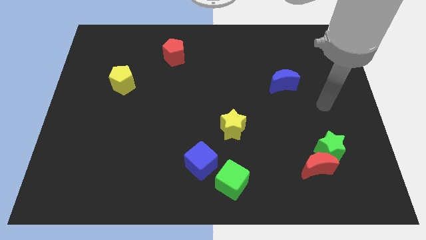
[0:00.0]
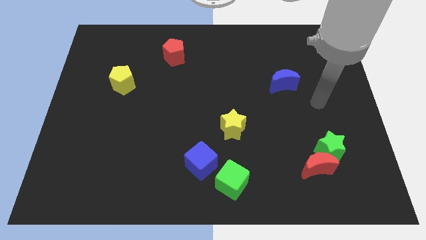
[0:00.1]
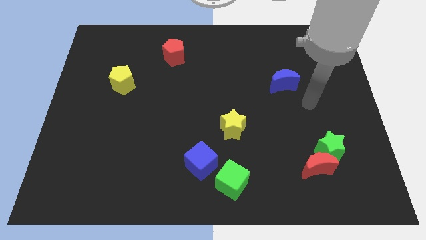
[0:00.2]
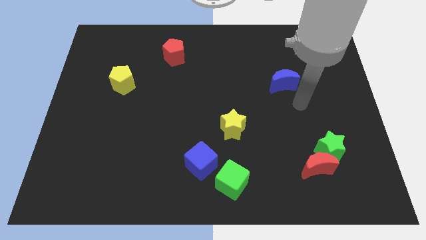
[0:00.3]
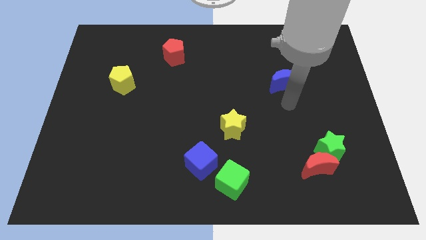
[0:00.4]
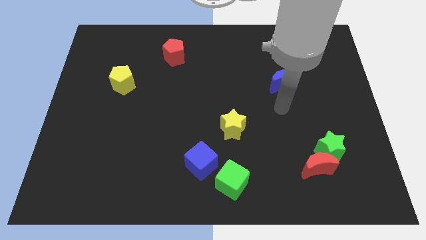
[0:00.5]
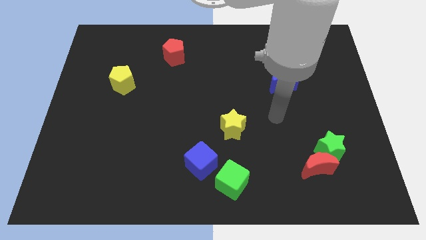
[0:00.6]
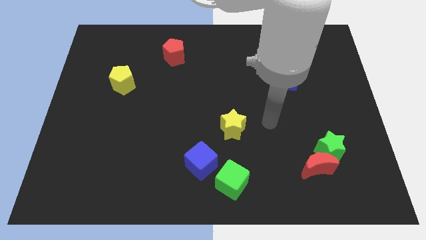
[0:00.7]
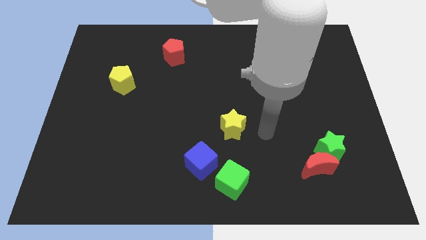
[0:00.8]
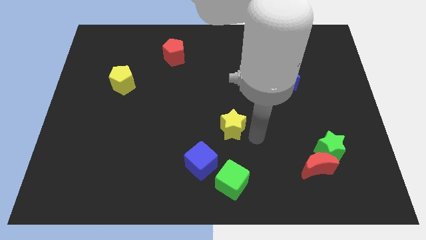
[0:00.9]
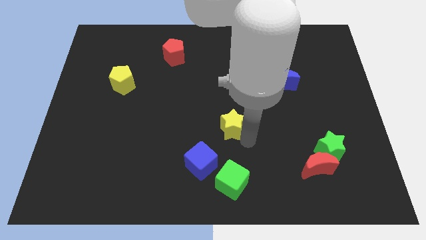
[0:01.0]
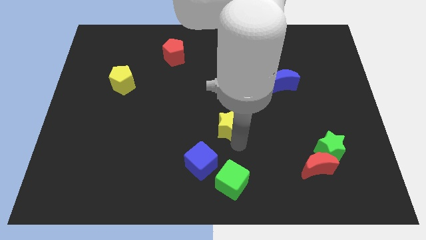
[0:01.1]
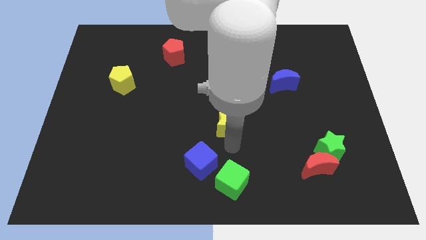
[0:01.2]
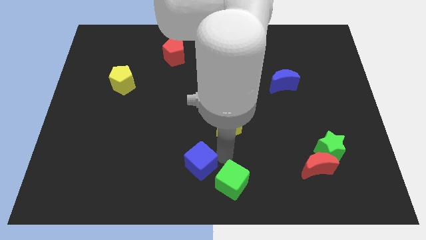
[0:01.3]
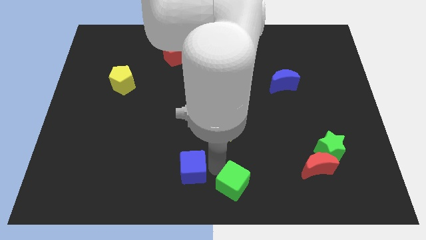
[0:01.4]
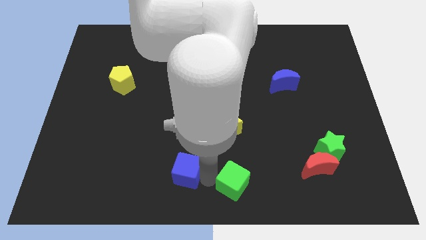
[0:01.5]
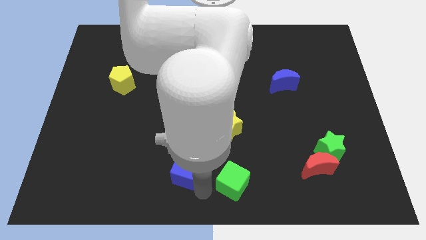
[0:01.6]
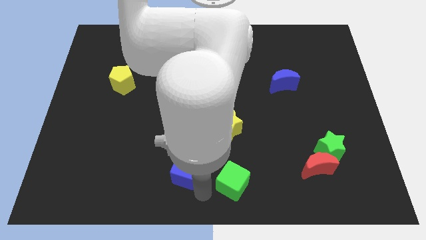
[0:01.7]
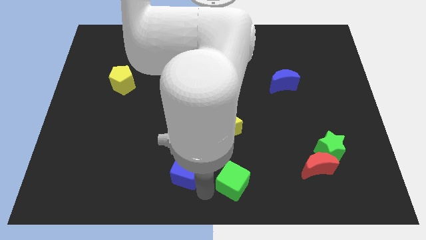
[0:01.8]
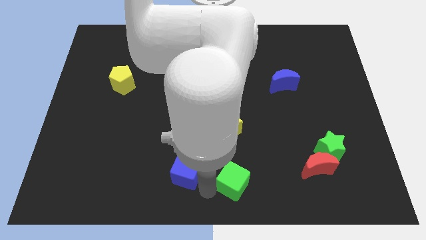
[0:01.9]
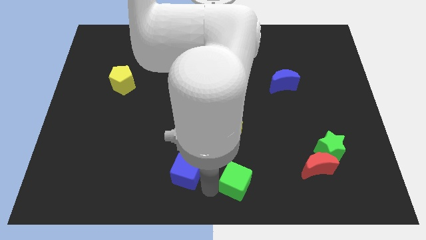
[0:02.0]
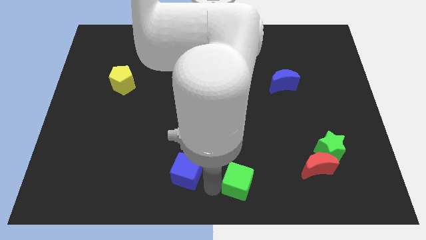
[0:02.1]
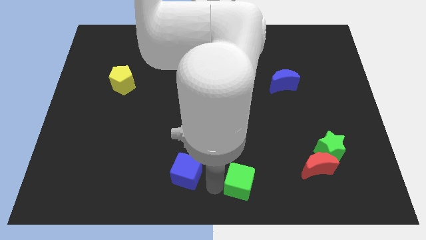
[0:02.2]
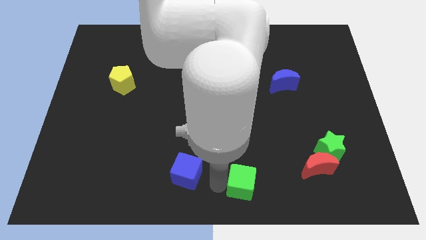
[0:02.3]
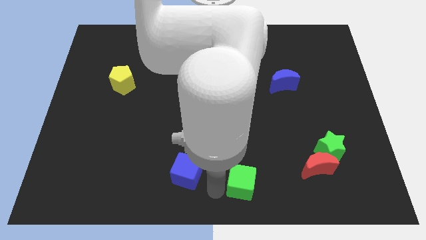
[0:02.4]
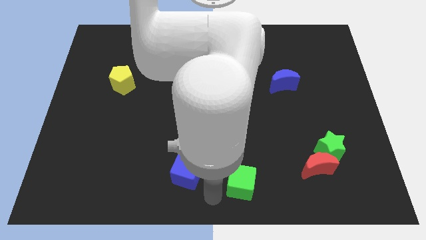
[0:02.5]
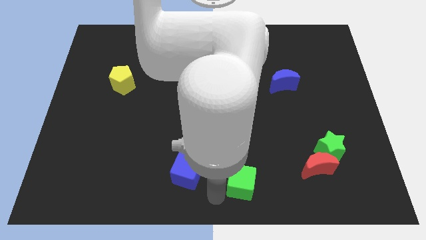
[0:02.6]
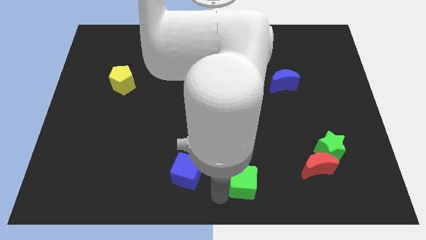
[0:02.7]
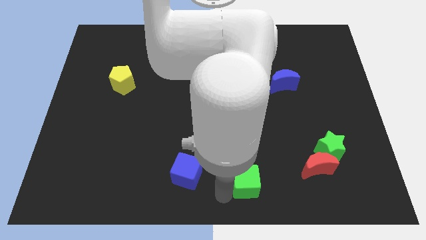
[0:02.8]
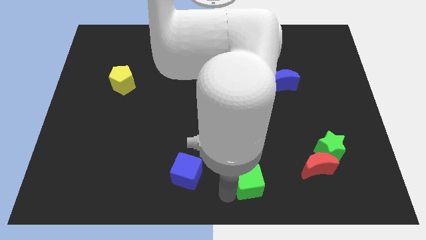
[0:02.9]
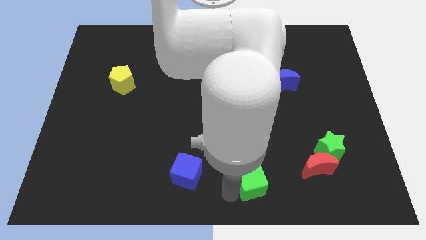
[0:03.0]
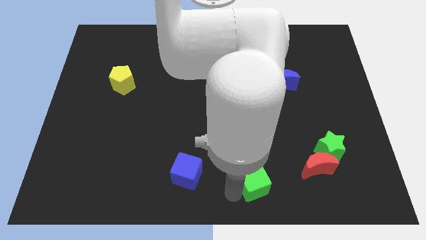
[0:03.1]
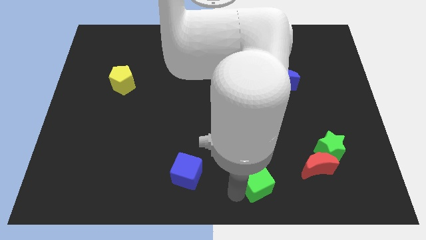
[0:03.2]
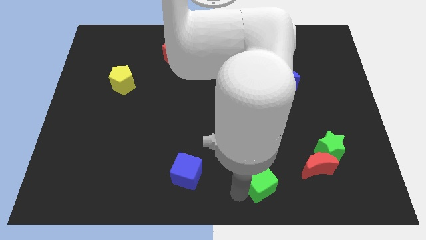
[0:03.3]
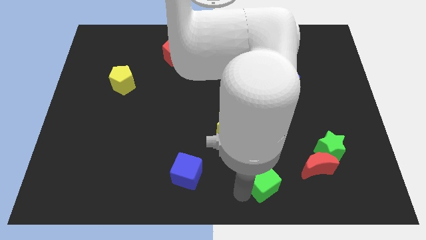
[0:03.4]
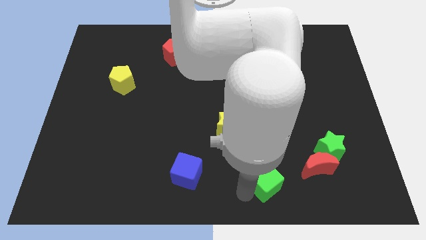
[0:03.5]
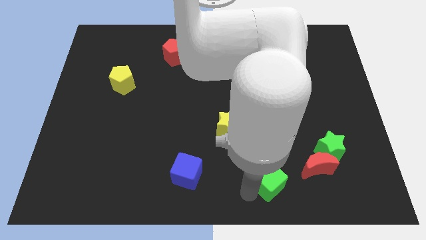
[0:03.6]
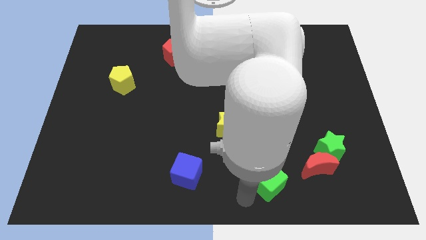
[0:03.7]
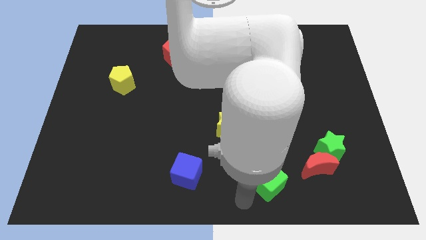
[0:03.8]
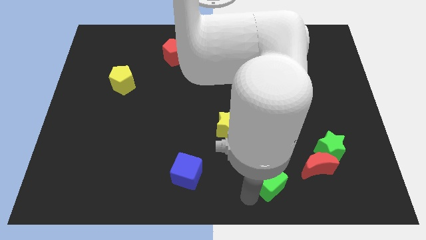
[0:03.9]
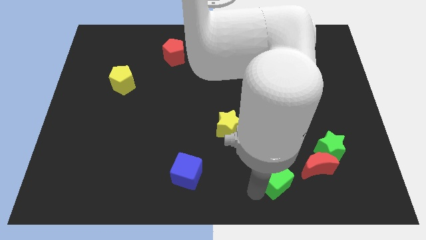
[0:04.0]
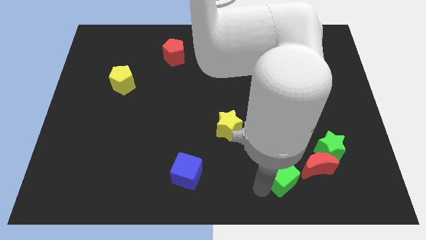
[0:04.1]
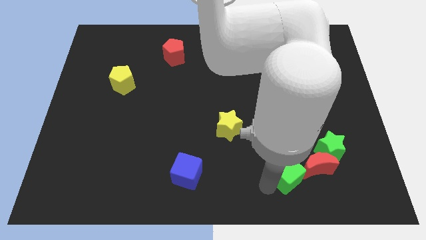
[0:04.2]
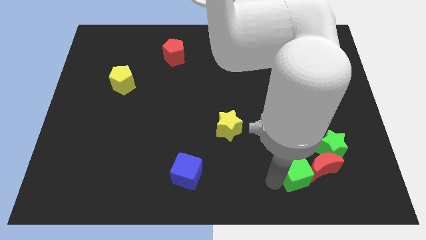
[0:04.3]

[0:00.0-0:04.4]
move the green cube towards the red moon

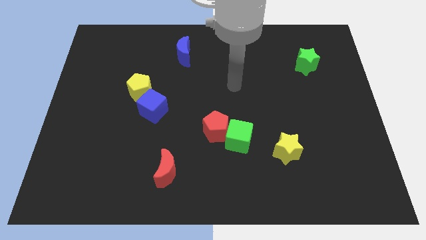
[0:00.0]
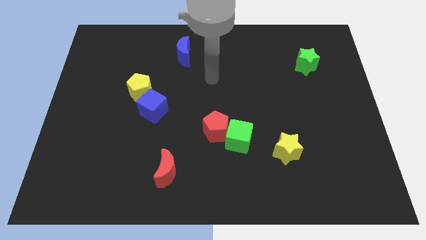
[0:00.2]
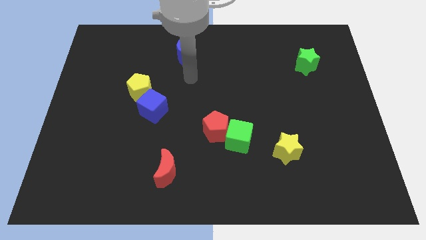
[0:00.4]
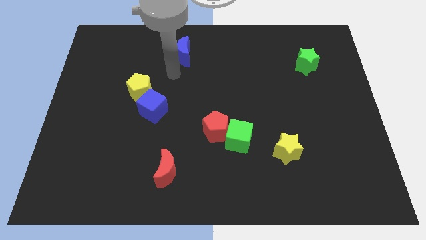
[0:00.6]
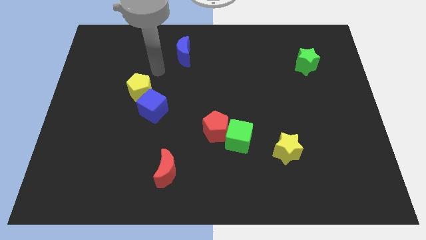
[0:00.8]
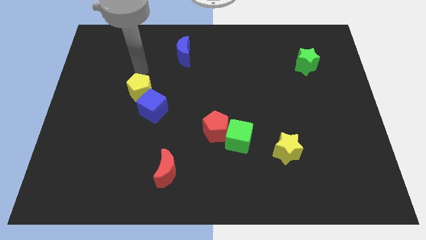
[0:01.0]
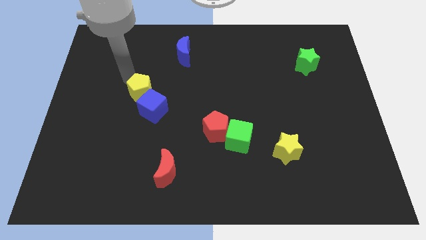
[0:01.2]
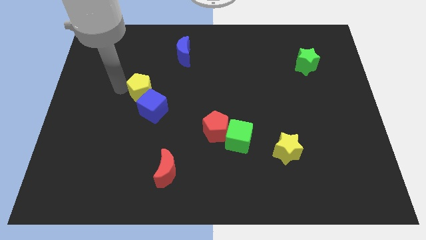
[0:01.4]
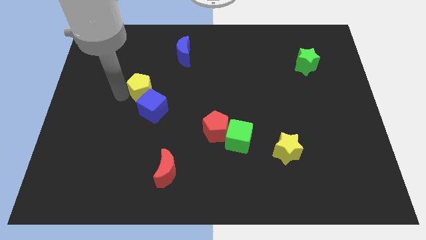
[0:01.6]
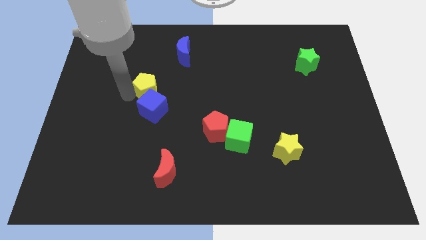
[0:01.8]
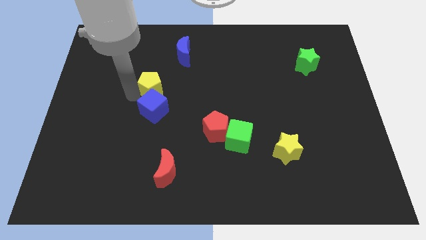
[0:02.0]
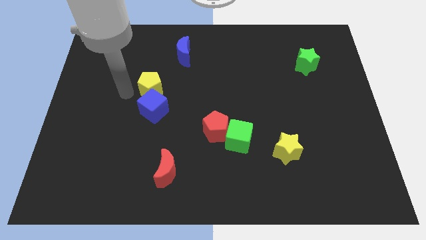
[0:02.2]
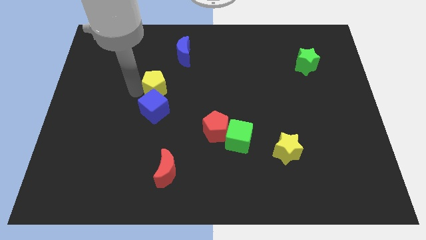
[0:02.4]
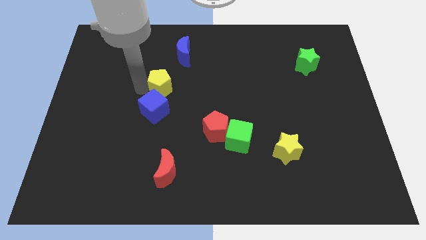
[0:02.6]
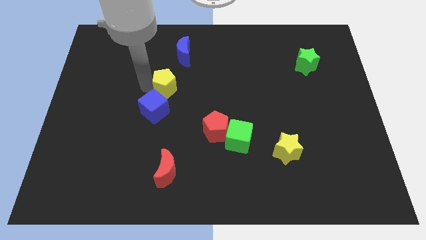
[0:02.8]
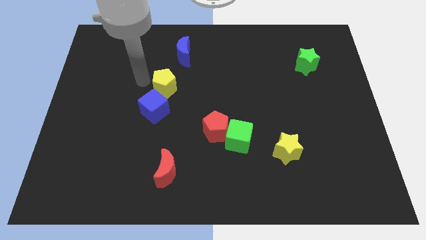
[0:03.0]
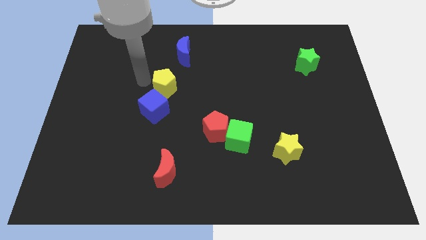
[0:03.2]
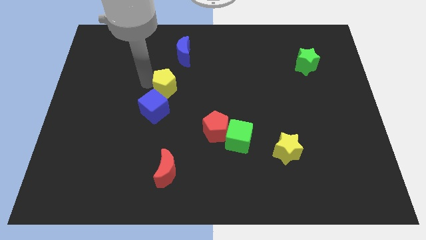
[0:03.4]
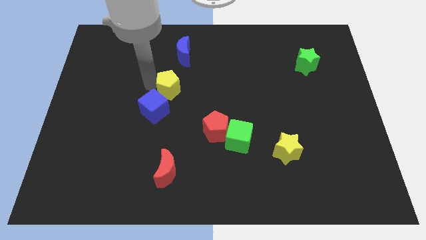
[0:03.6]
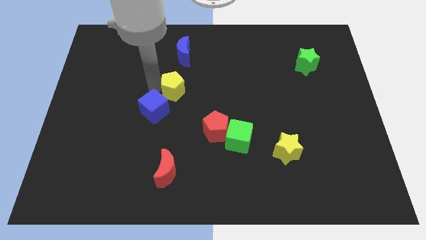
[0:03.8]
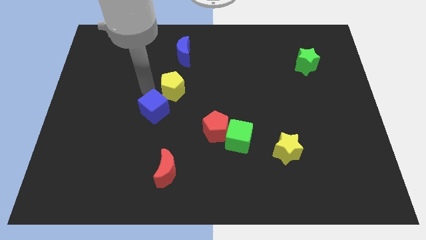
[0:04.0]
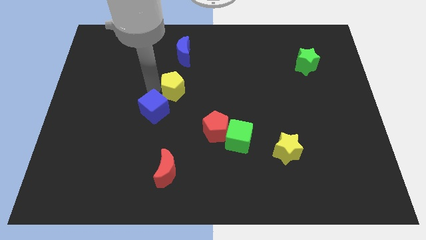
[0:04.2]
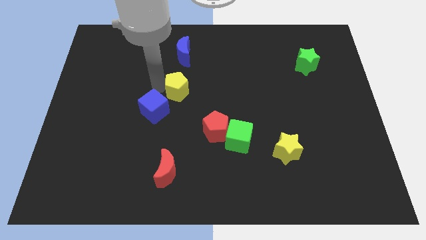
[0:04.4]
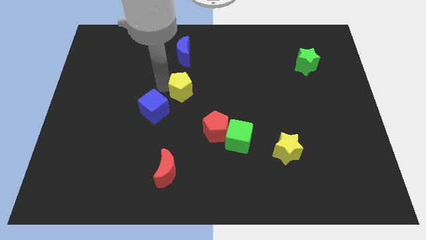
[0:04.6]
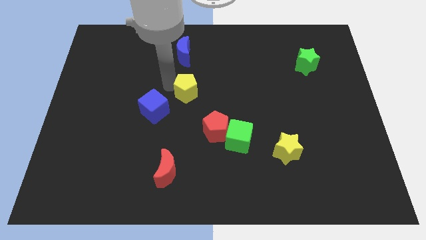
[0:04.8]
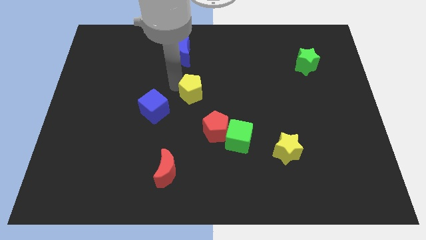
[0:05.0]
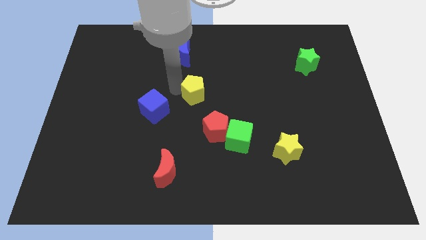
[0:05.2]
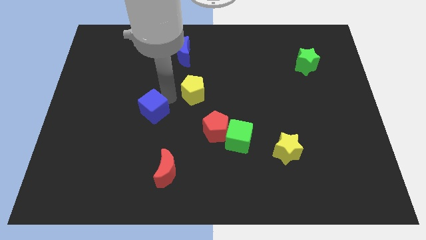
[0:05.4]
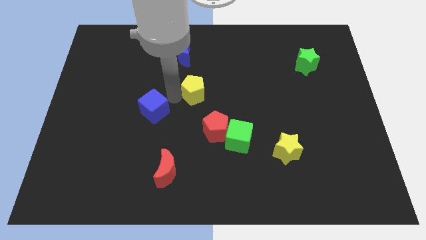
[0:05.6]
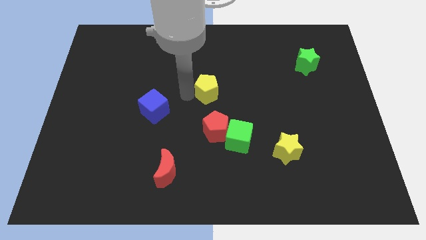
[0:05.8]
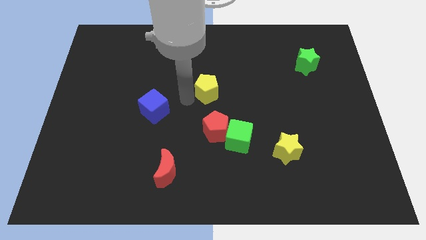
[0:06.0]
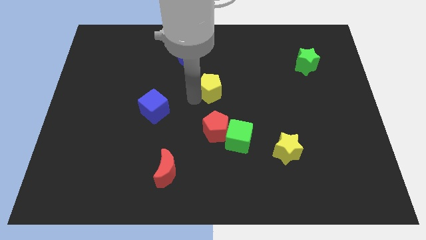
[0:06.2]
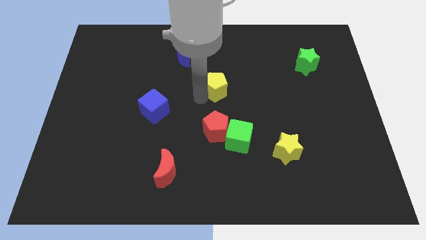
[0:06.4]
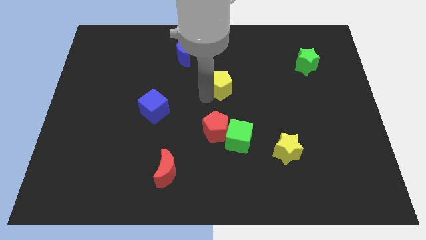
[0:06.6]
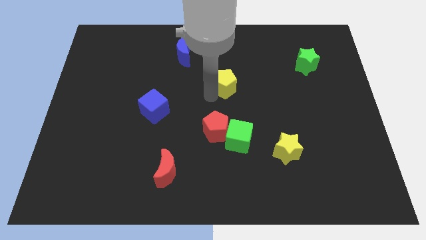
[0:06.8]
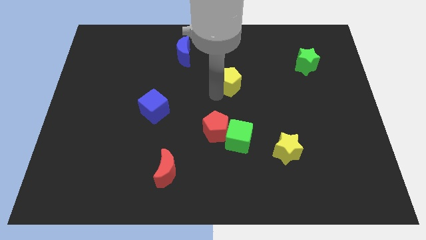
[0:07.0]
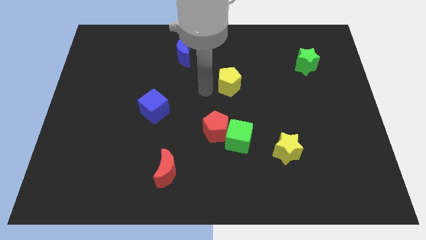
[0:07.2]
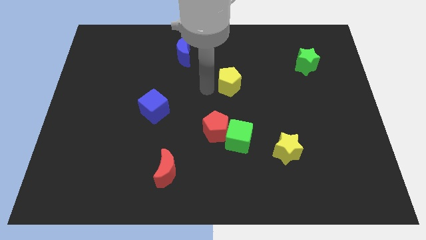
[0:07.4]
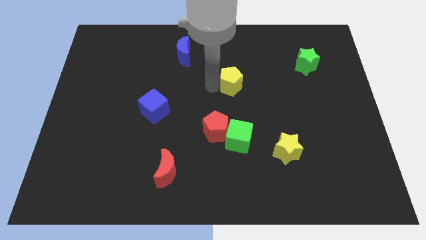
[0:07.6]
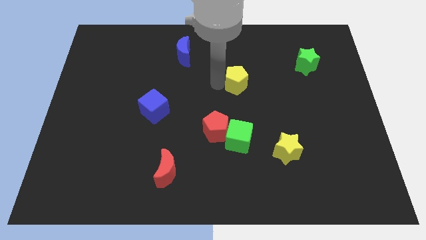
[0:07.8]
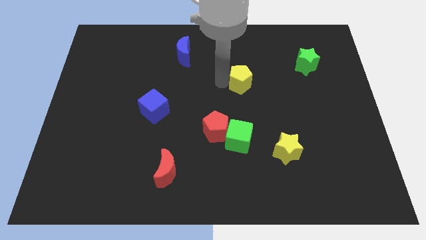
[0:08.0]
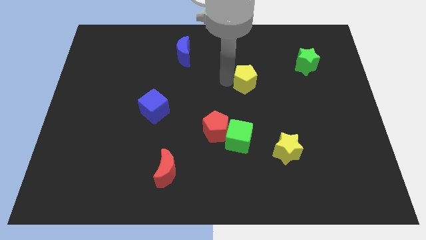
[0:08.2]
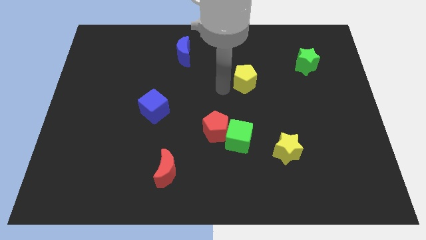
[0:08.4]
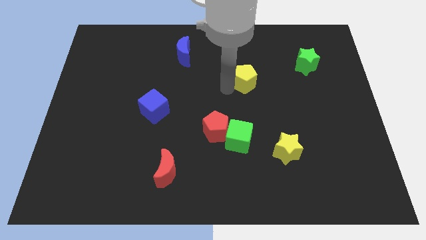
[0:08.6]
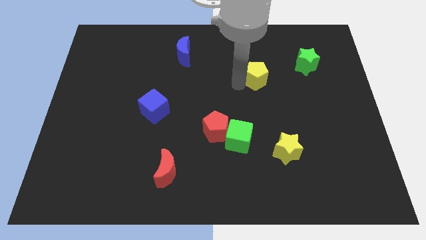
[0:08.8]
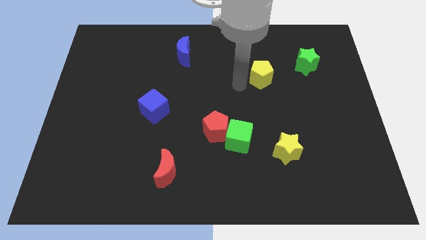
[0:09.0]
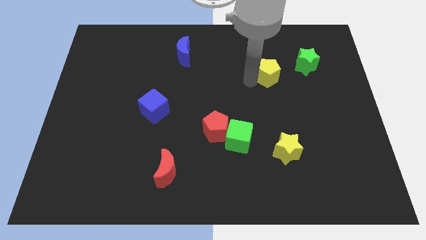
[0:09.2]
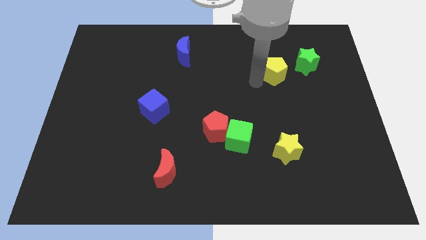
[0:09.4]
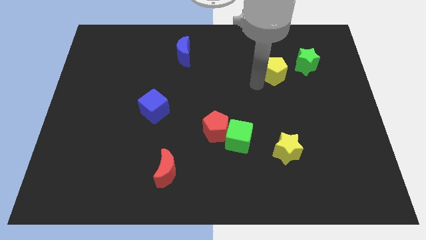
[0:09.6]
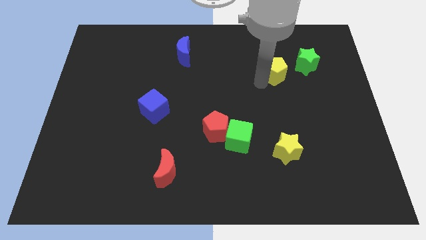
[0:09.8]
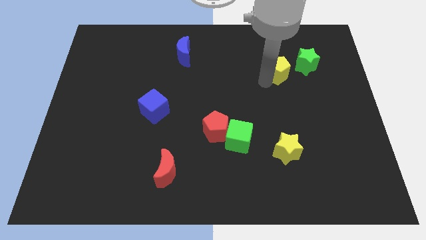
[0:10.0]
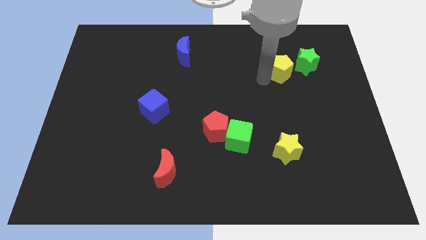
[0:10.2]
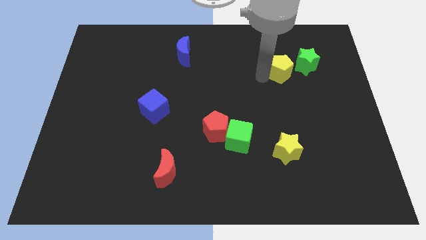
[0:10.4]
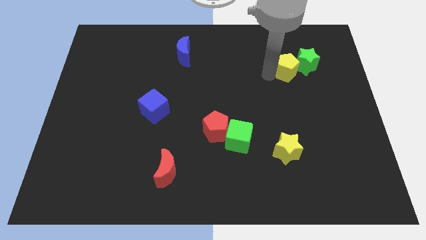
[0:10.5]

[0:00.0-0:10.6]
slide the yellow pentagon towards the green star
